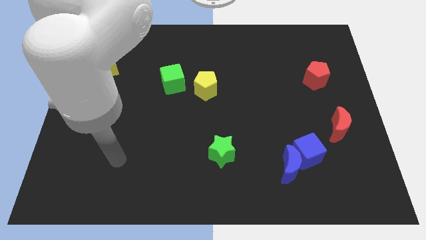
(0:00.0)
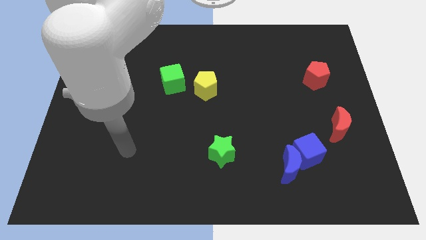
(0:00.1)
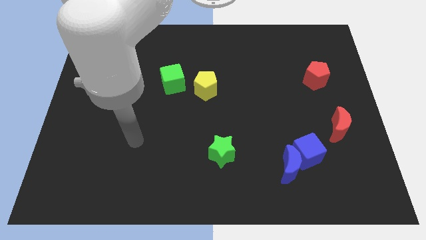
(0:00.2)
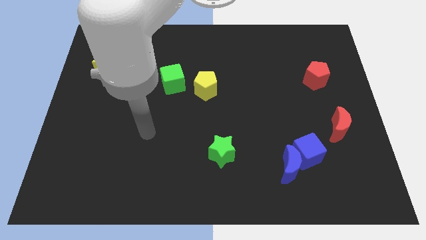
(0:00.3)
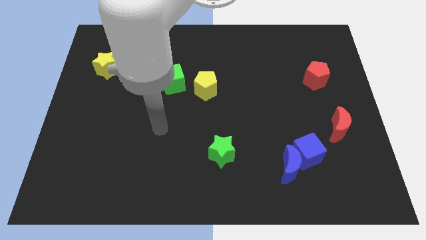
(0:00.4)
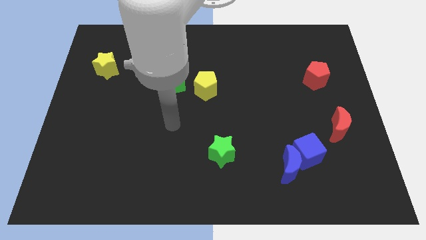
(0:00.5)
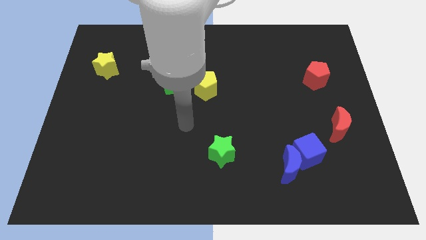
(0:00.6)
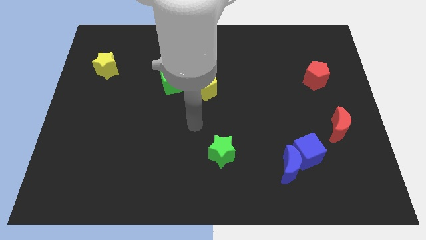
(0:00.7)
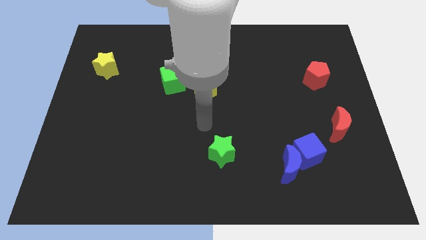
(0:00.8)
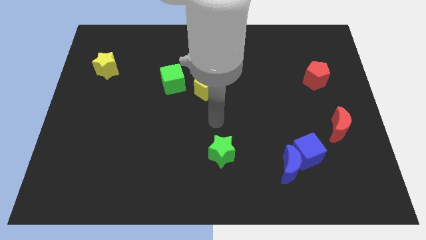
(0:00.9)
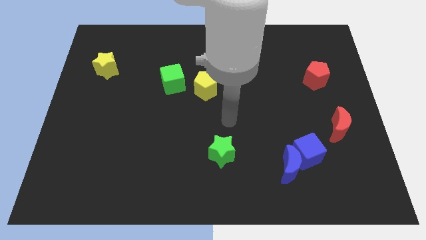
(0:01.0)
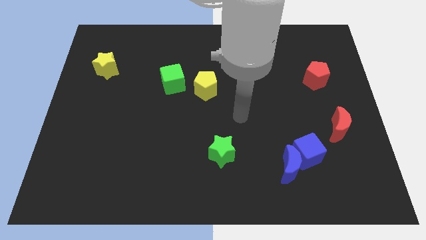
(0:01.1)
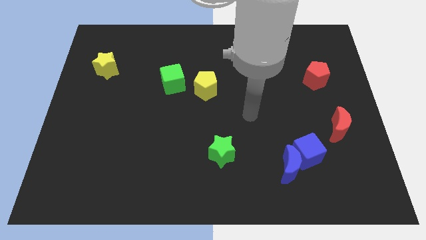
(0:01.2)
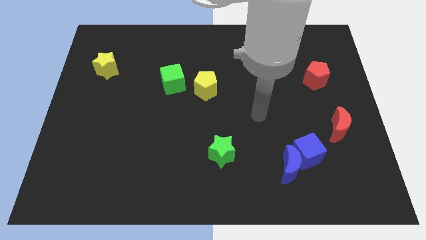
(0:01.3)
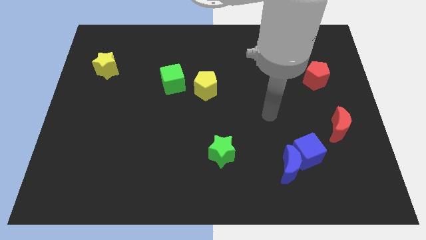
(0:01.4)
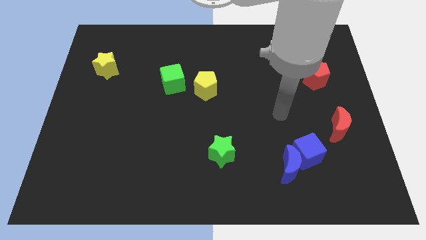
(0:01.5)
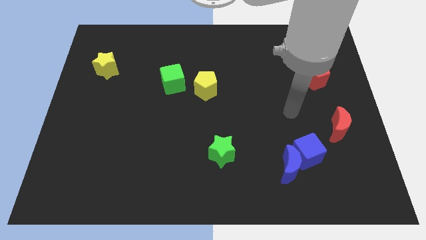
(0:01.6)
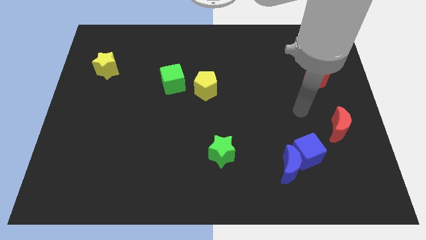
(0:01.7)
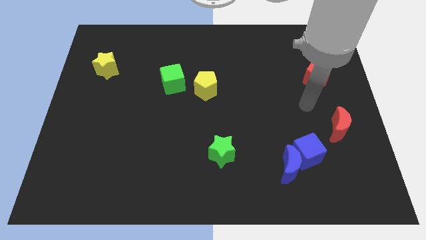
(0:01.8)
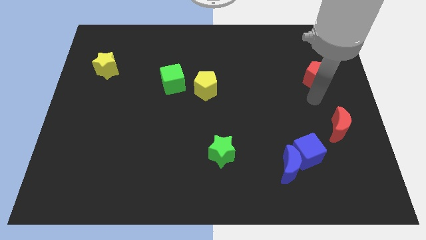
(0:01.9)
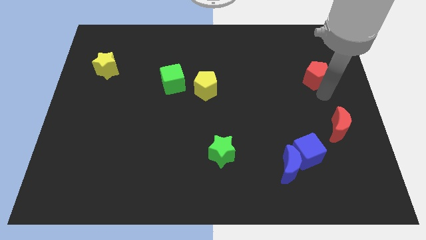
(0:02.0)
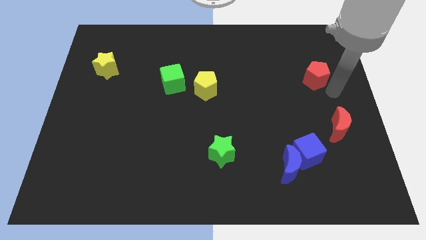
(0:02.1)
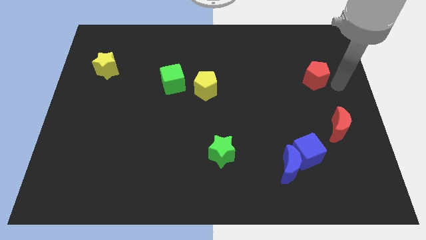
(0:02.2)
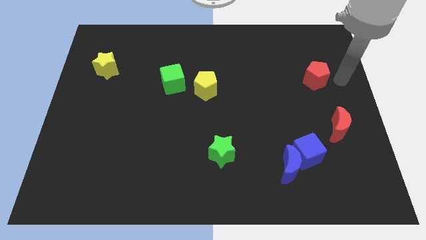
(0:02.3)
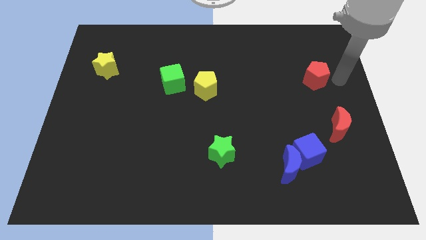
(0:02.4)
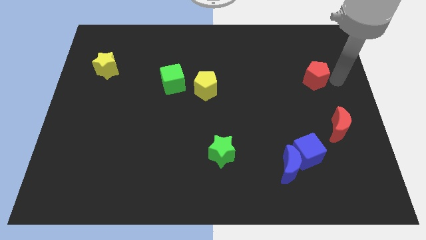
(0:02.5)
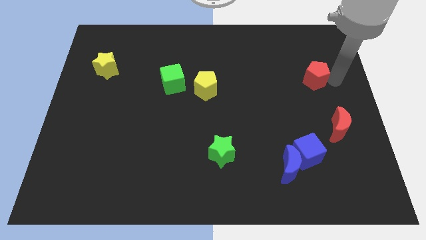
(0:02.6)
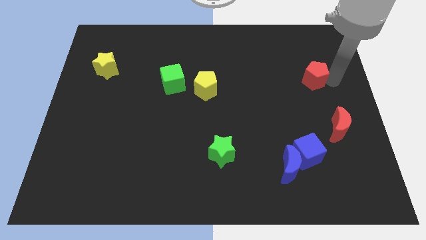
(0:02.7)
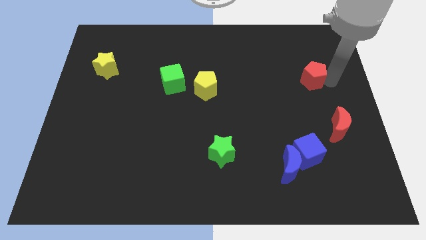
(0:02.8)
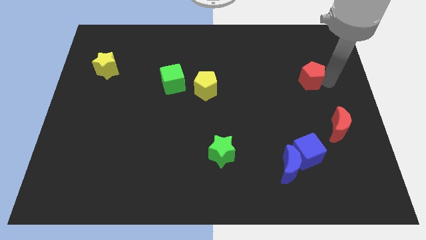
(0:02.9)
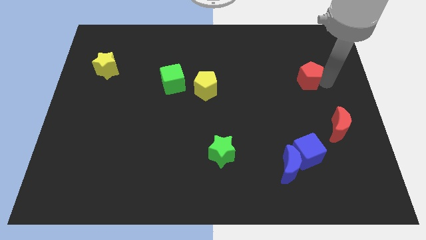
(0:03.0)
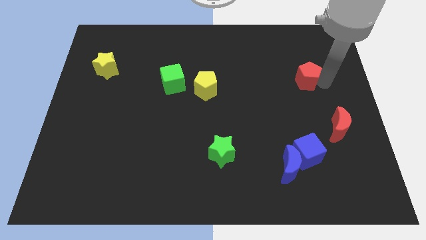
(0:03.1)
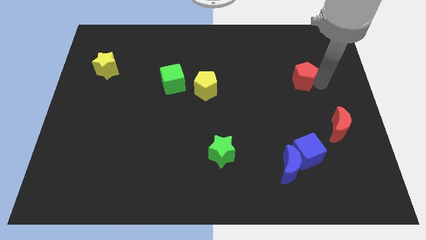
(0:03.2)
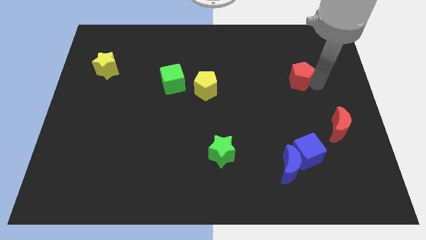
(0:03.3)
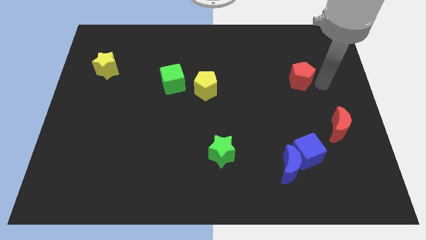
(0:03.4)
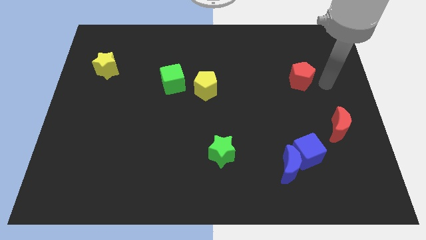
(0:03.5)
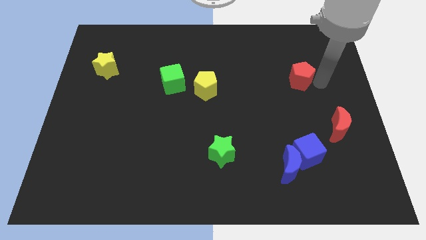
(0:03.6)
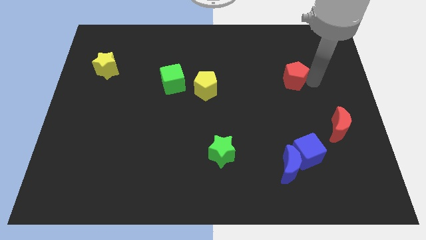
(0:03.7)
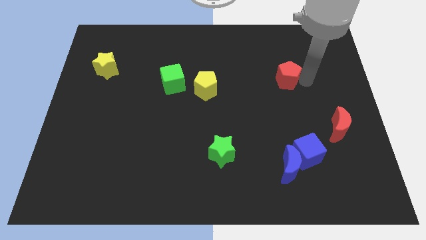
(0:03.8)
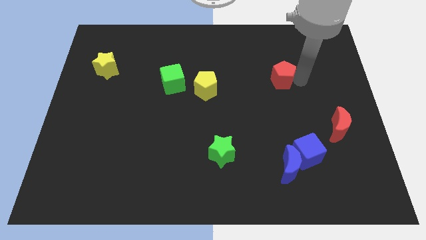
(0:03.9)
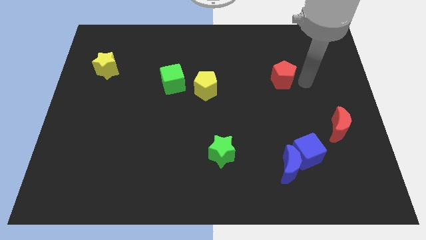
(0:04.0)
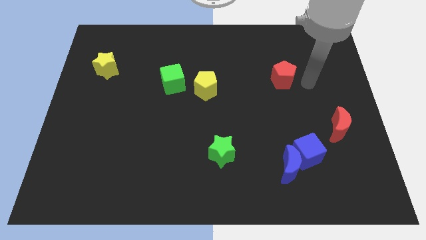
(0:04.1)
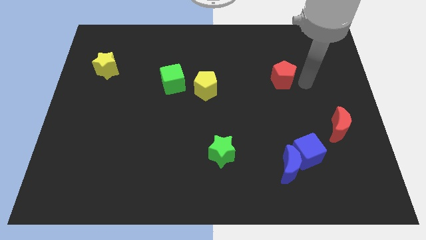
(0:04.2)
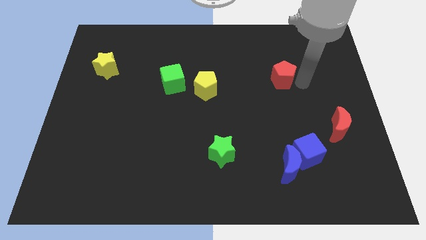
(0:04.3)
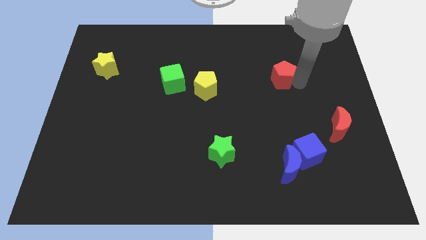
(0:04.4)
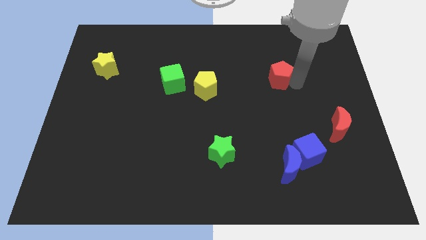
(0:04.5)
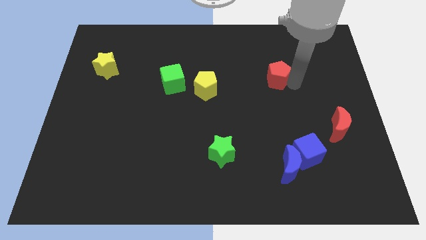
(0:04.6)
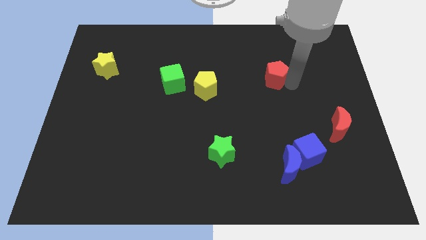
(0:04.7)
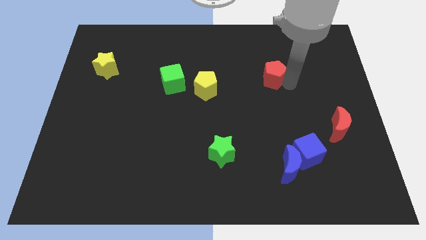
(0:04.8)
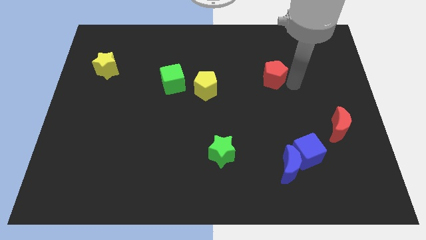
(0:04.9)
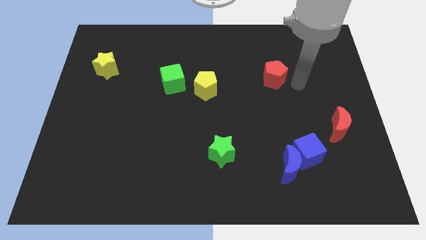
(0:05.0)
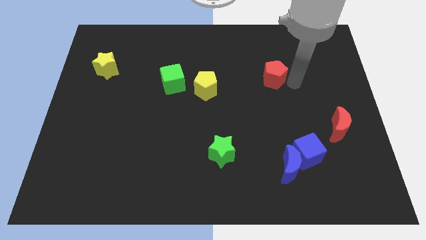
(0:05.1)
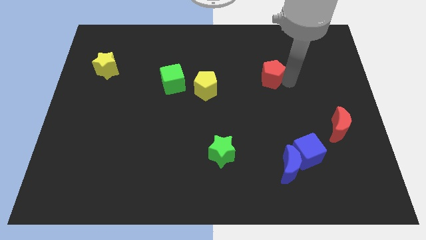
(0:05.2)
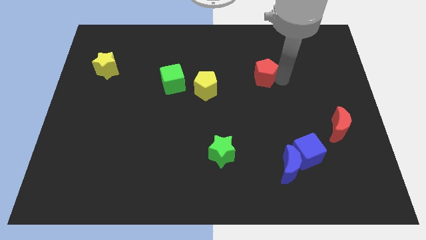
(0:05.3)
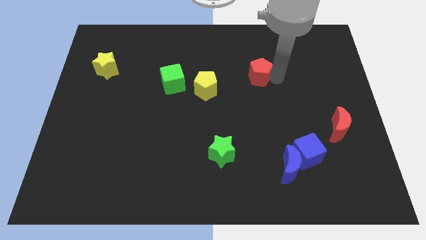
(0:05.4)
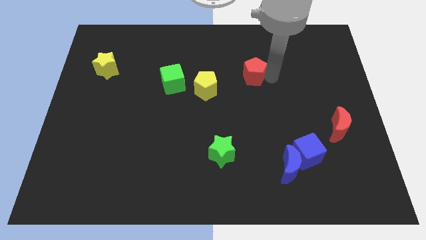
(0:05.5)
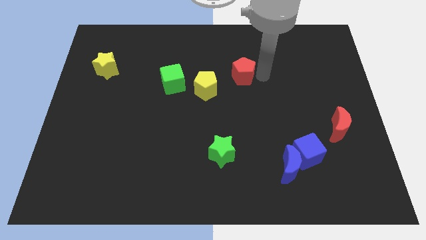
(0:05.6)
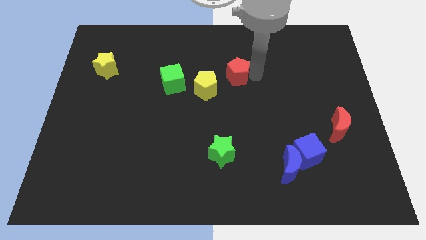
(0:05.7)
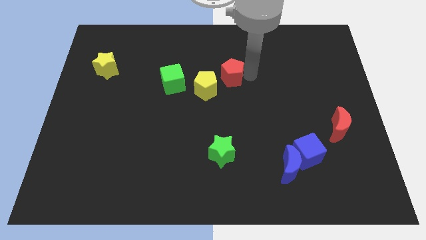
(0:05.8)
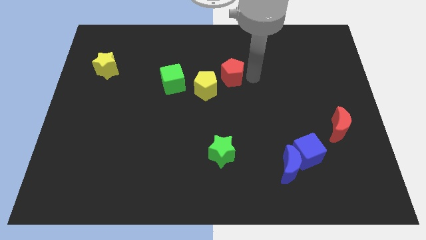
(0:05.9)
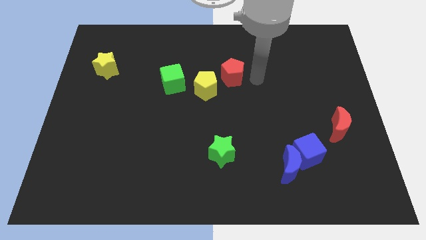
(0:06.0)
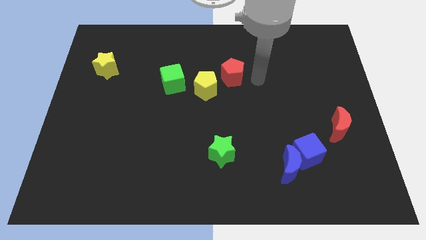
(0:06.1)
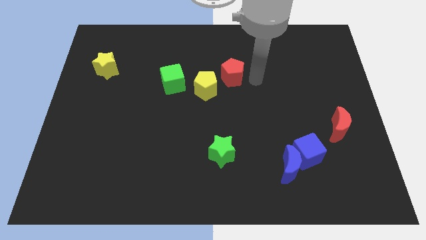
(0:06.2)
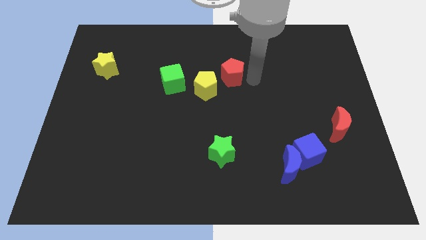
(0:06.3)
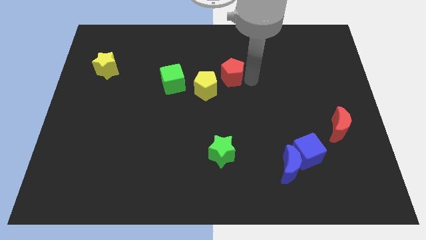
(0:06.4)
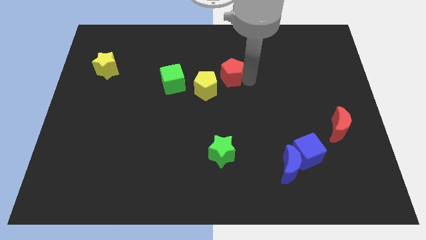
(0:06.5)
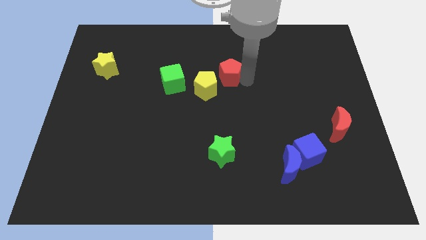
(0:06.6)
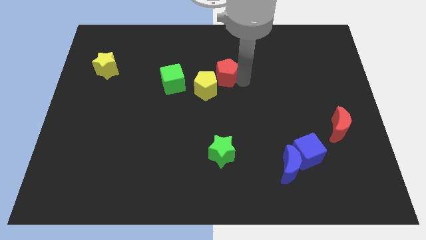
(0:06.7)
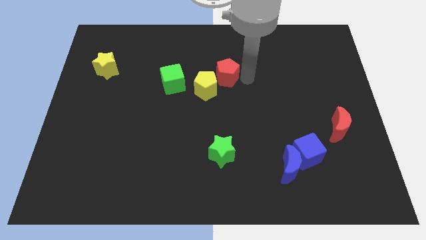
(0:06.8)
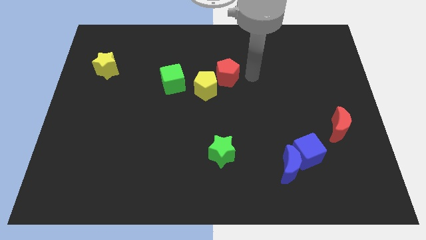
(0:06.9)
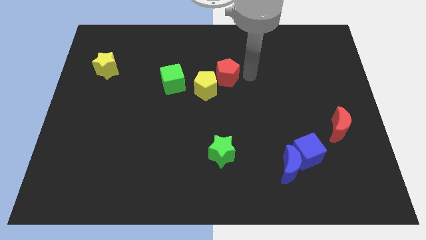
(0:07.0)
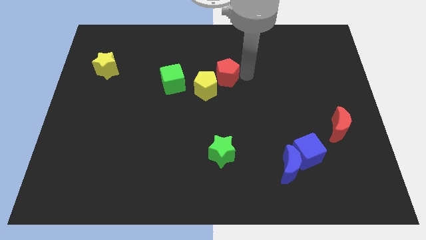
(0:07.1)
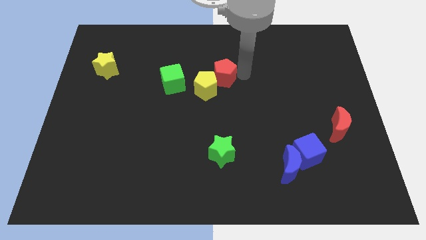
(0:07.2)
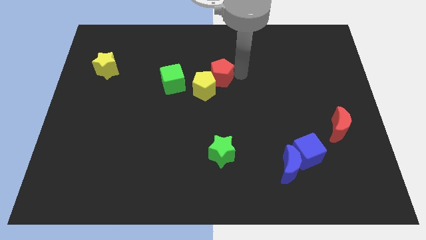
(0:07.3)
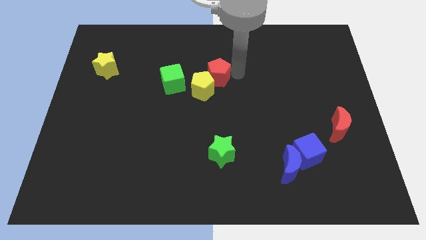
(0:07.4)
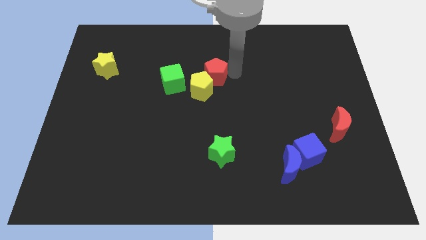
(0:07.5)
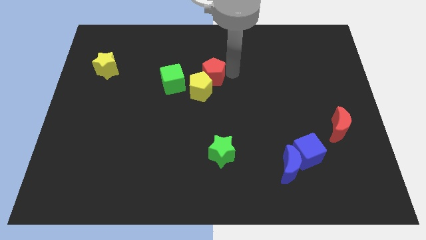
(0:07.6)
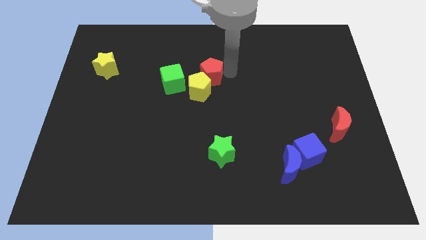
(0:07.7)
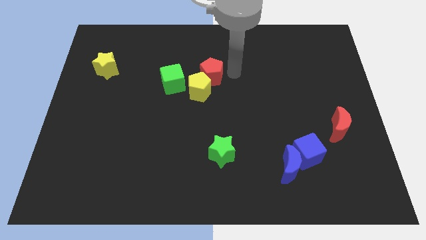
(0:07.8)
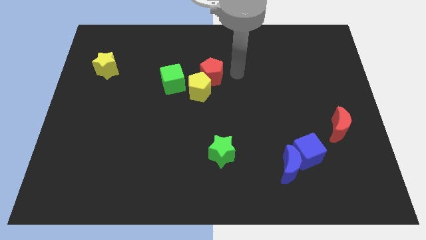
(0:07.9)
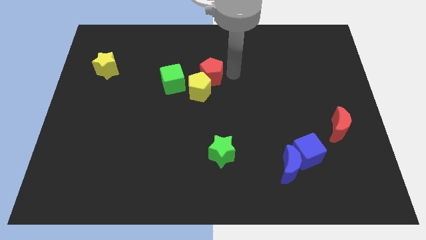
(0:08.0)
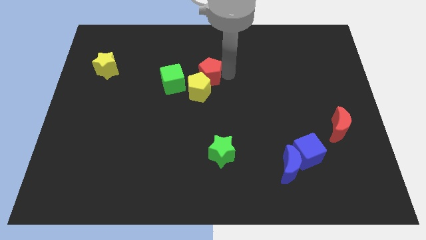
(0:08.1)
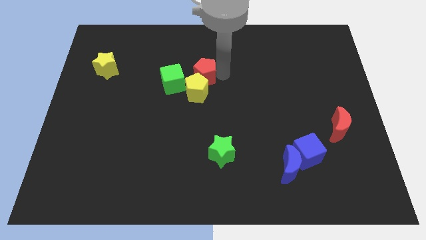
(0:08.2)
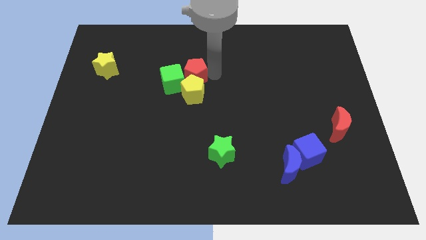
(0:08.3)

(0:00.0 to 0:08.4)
push the red pentagon next to the green cube
